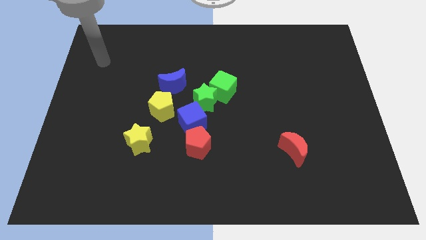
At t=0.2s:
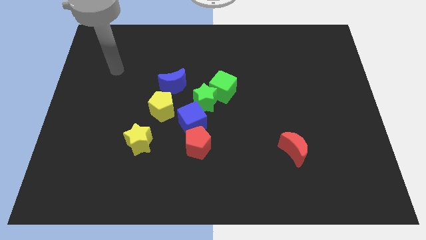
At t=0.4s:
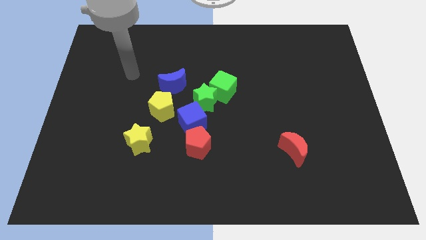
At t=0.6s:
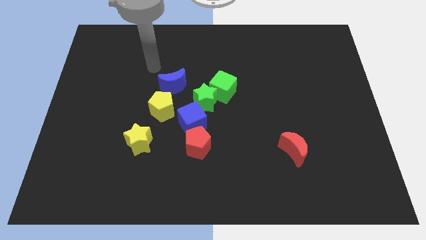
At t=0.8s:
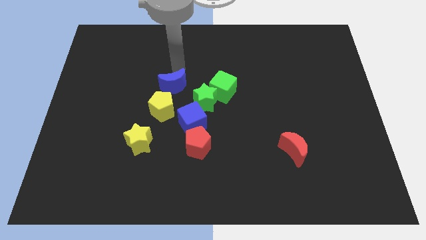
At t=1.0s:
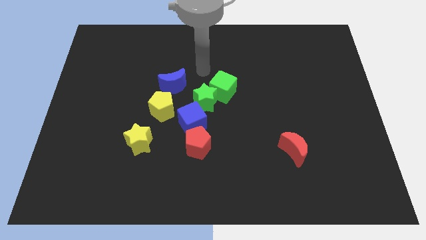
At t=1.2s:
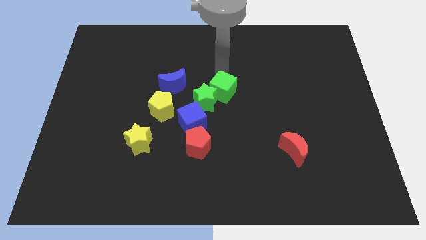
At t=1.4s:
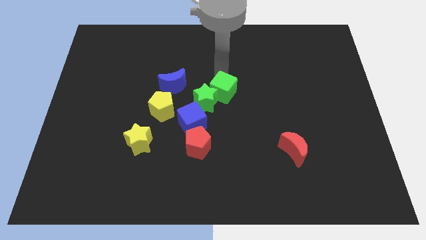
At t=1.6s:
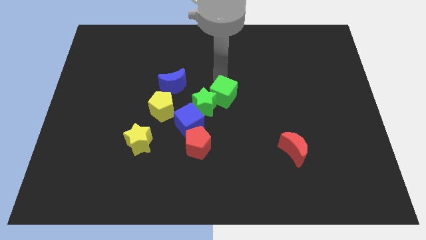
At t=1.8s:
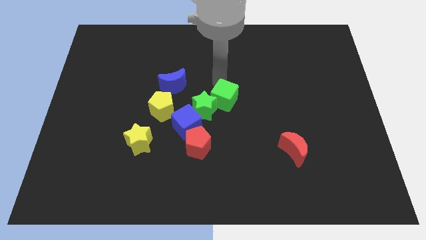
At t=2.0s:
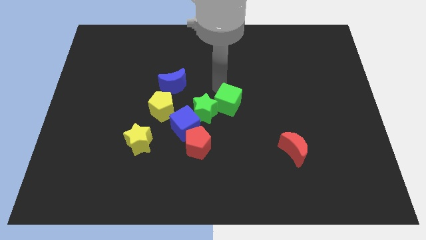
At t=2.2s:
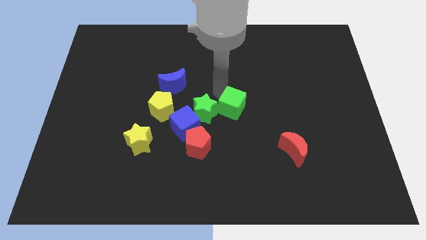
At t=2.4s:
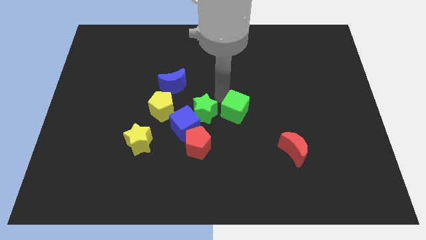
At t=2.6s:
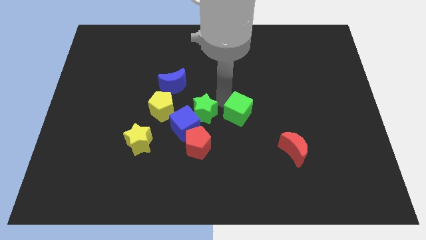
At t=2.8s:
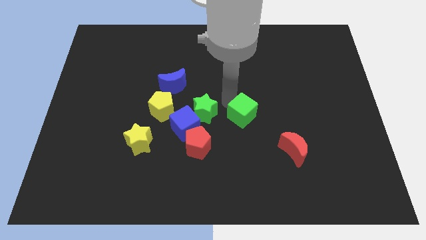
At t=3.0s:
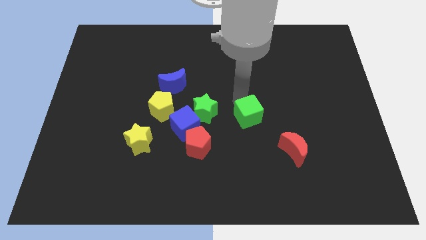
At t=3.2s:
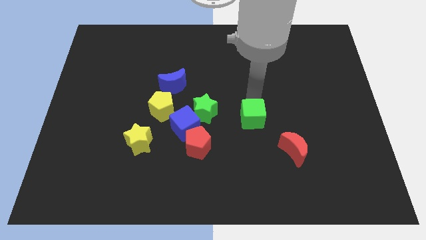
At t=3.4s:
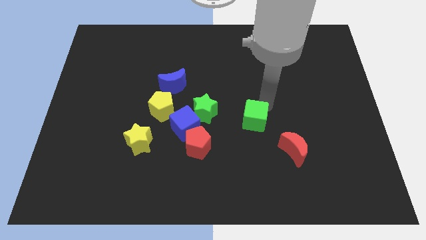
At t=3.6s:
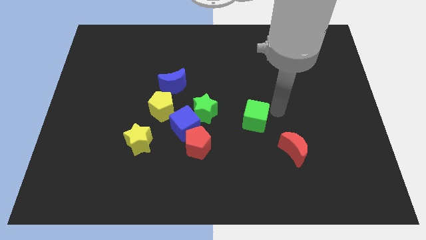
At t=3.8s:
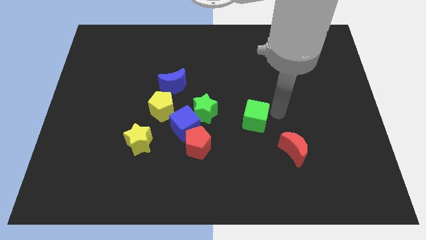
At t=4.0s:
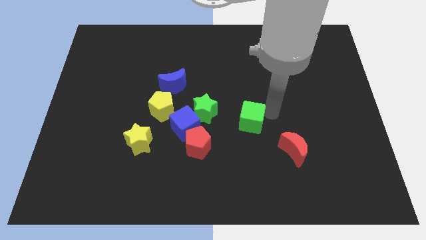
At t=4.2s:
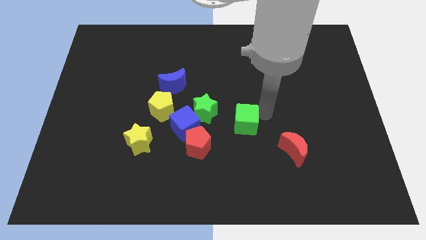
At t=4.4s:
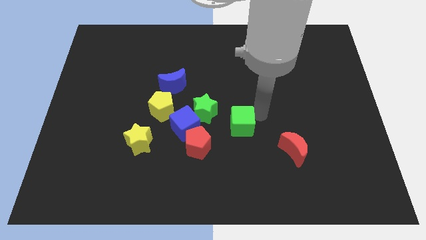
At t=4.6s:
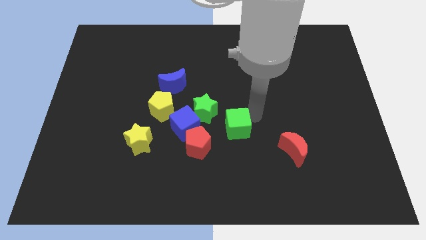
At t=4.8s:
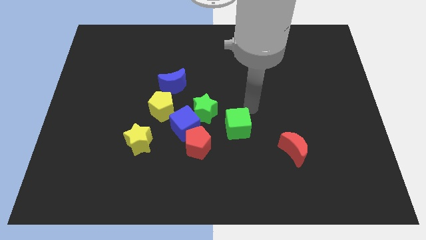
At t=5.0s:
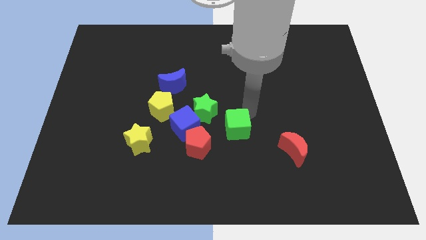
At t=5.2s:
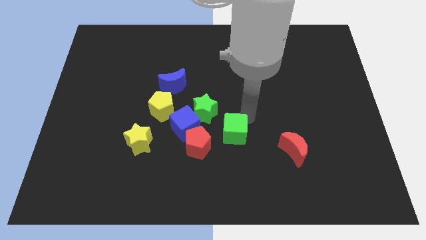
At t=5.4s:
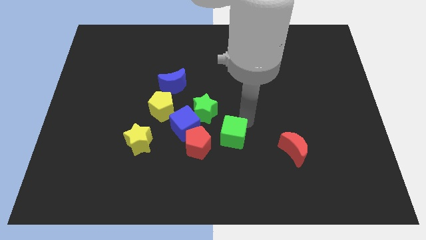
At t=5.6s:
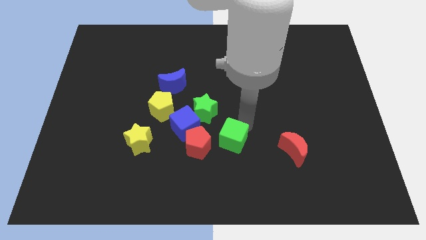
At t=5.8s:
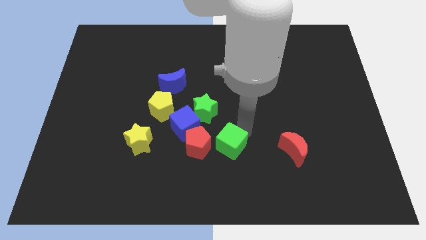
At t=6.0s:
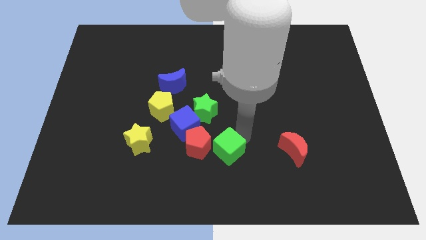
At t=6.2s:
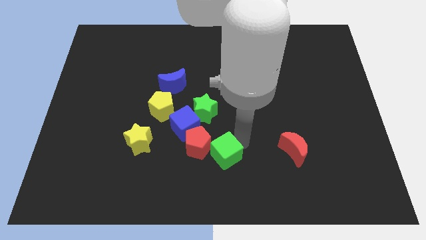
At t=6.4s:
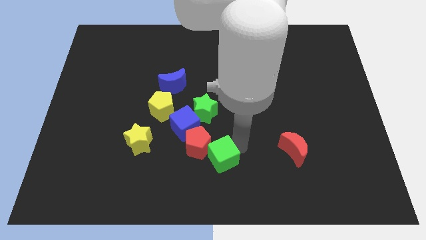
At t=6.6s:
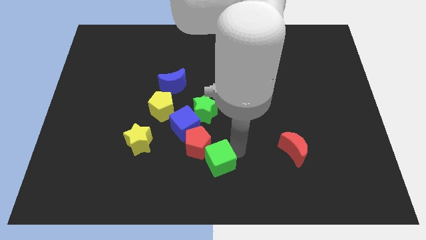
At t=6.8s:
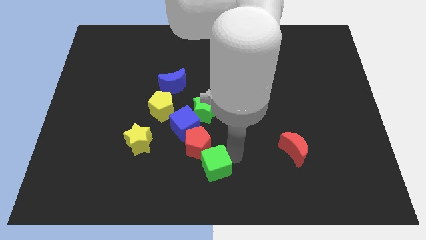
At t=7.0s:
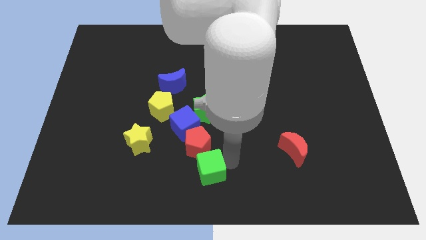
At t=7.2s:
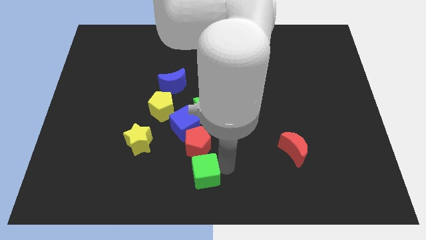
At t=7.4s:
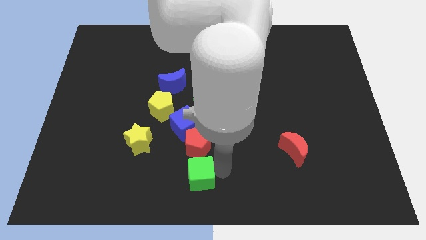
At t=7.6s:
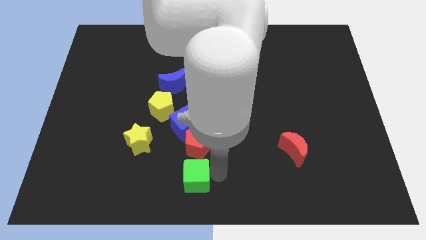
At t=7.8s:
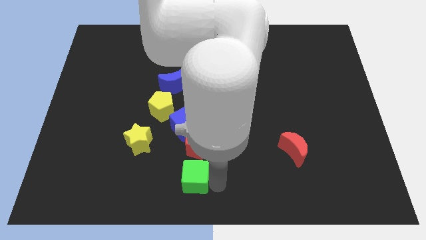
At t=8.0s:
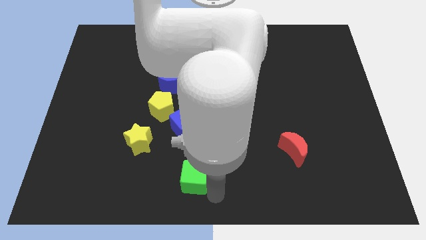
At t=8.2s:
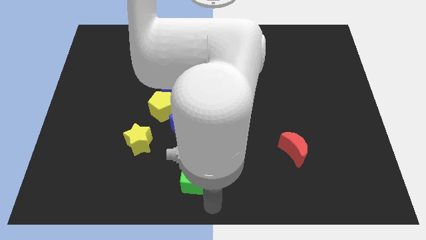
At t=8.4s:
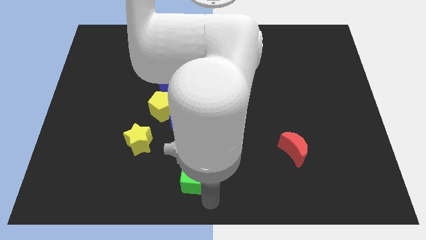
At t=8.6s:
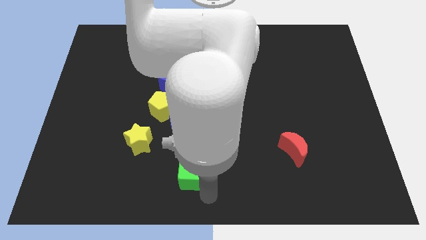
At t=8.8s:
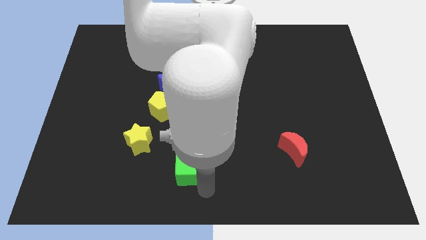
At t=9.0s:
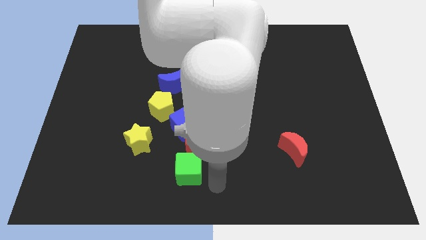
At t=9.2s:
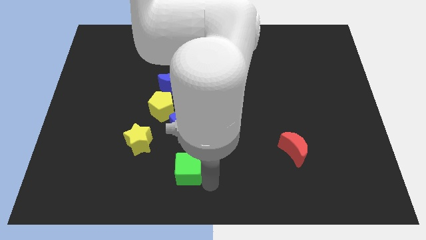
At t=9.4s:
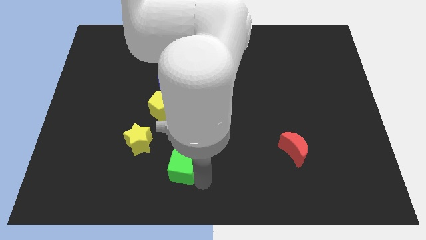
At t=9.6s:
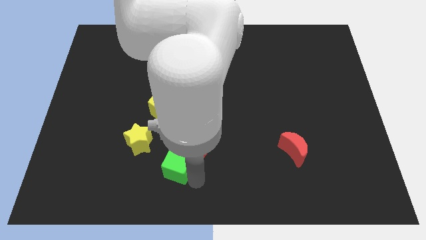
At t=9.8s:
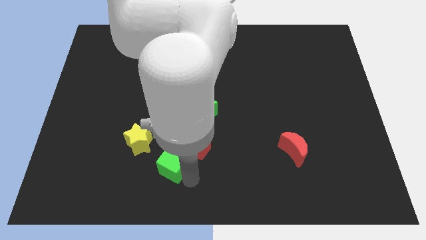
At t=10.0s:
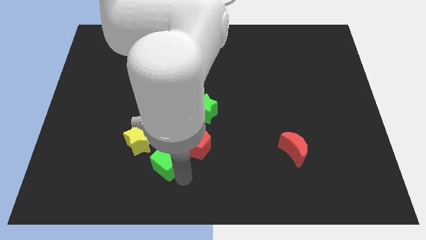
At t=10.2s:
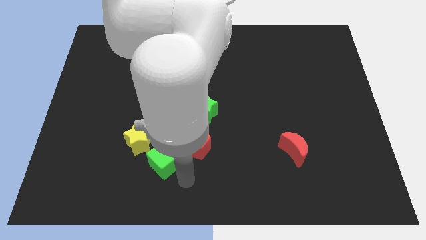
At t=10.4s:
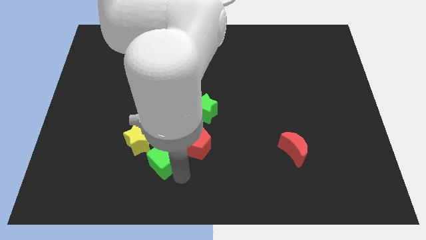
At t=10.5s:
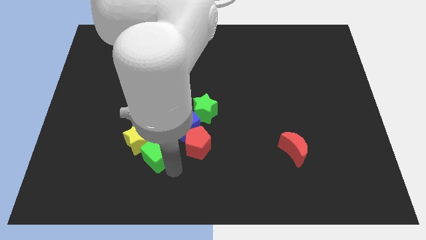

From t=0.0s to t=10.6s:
slide the green cube close to the yellow star

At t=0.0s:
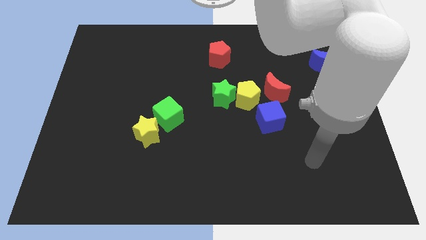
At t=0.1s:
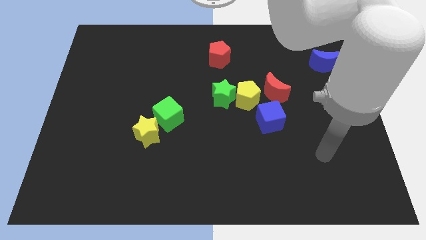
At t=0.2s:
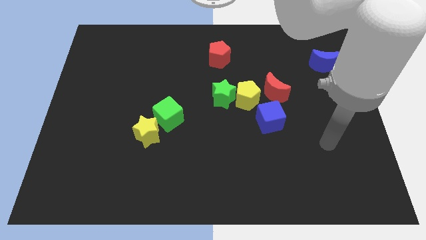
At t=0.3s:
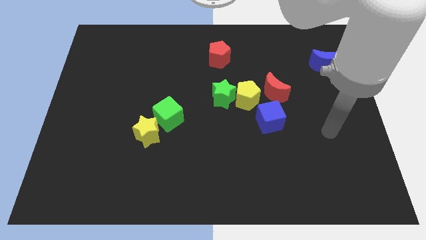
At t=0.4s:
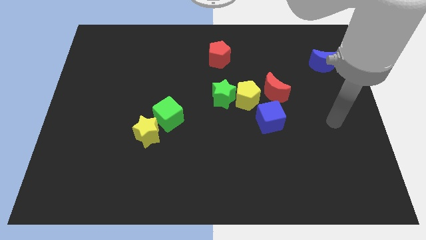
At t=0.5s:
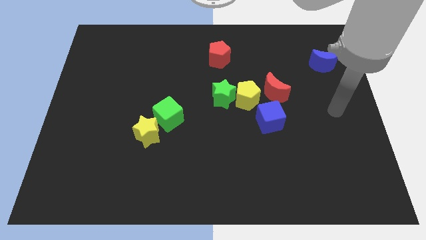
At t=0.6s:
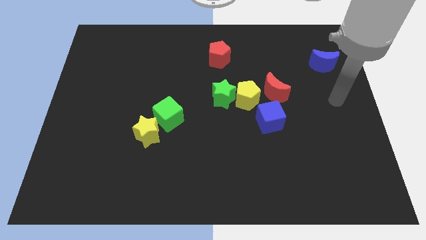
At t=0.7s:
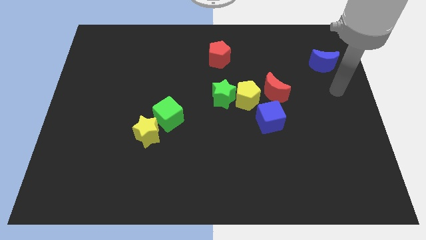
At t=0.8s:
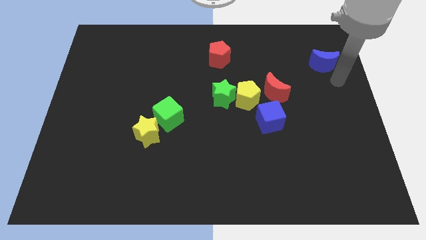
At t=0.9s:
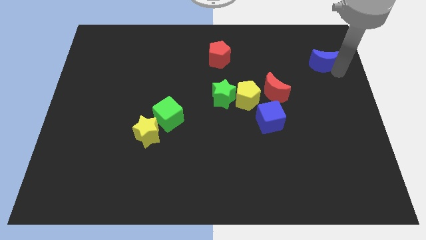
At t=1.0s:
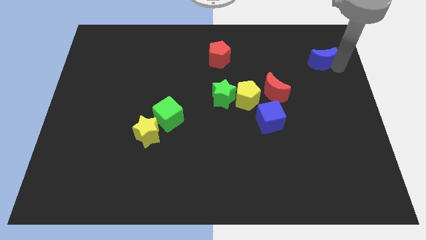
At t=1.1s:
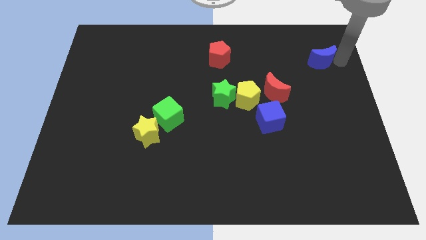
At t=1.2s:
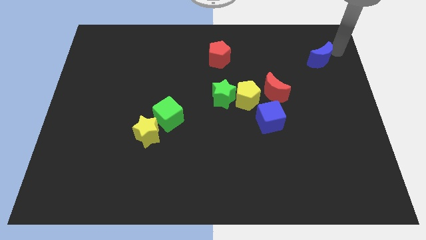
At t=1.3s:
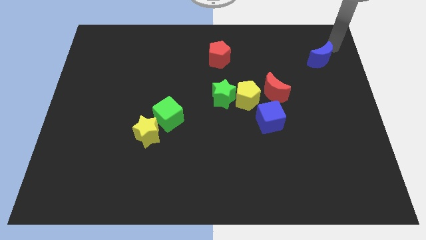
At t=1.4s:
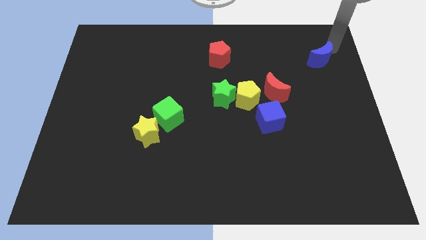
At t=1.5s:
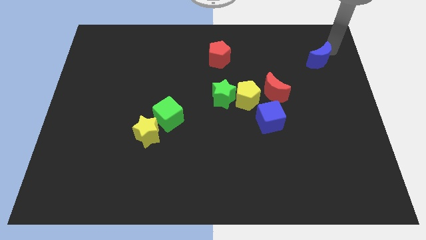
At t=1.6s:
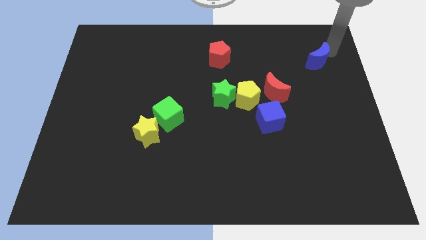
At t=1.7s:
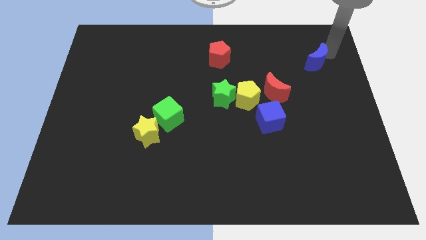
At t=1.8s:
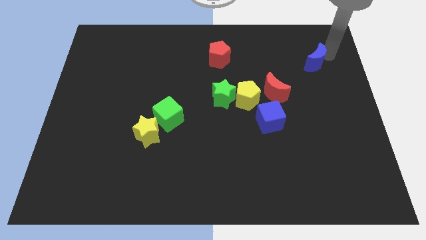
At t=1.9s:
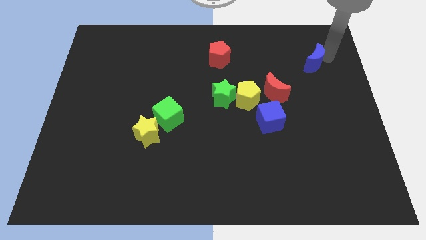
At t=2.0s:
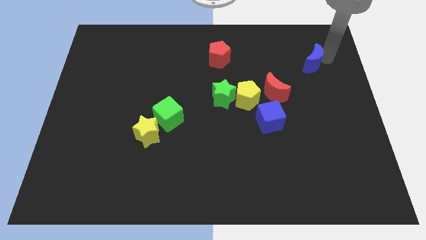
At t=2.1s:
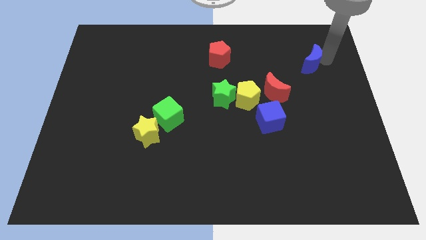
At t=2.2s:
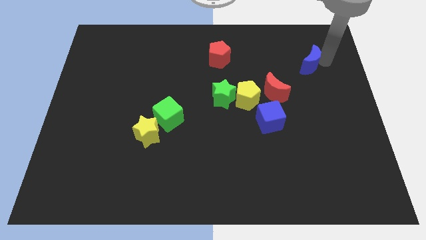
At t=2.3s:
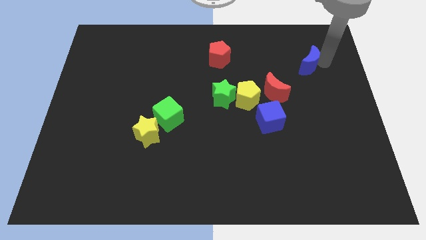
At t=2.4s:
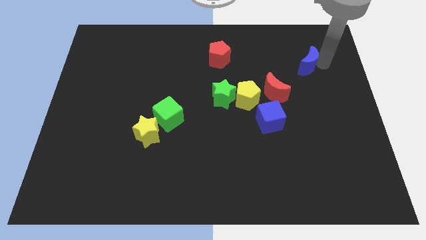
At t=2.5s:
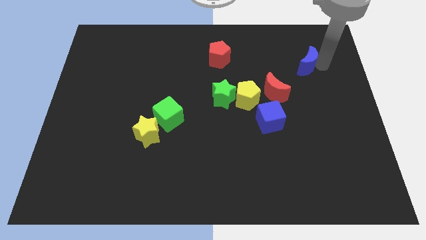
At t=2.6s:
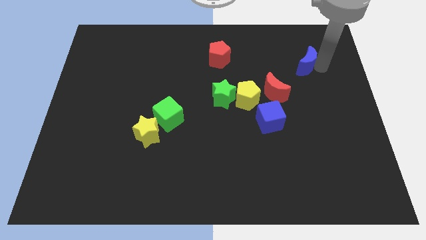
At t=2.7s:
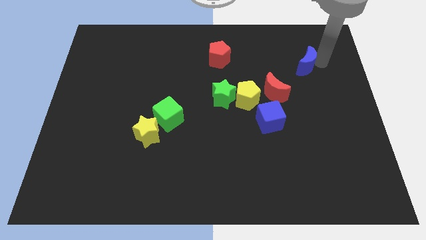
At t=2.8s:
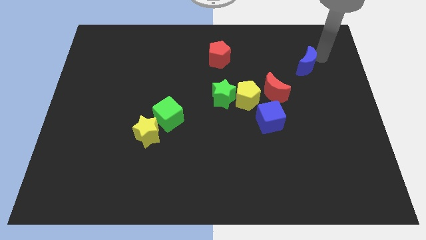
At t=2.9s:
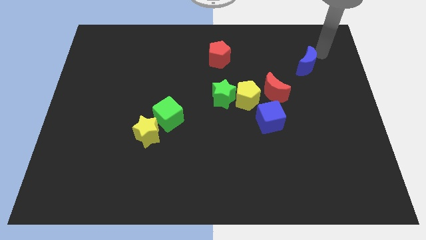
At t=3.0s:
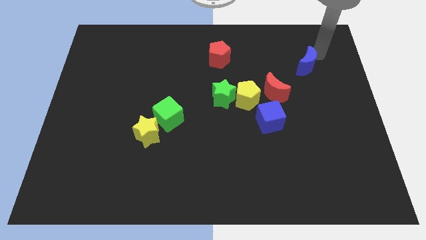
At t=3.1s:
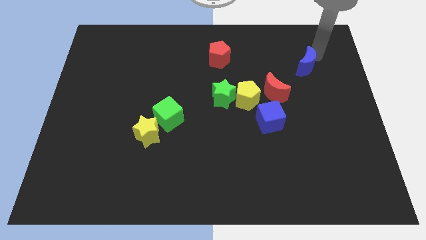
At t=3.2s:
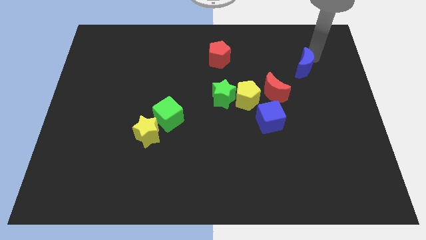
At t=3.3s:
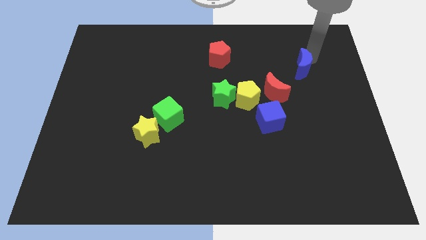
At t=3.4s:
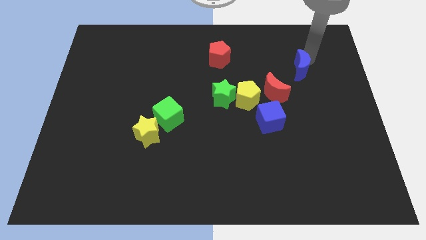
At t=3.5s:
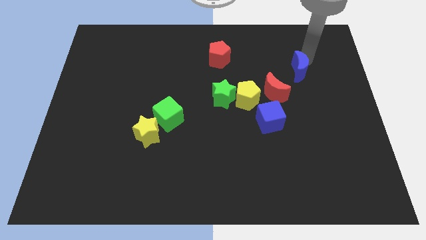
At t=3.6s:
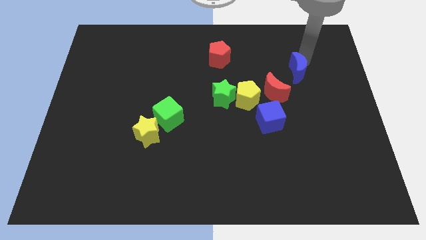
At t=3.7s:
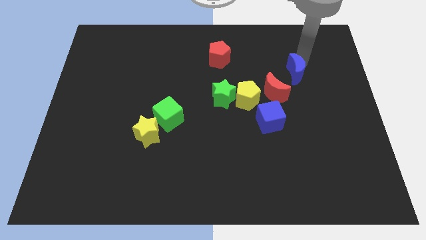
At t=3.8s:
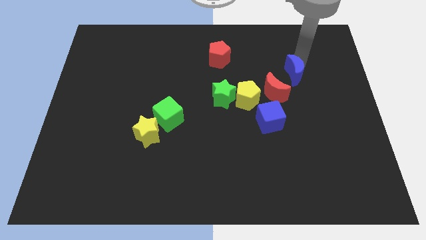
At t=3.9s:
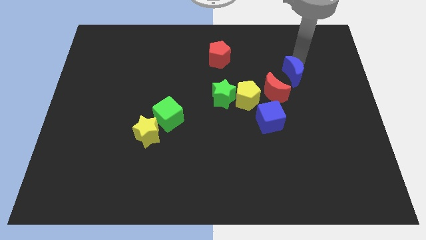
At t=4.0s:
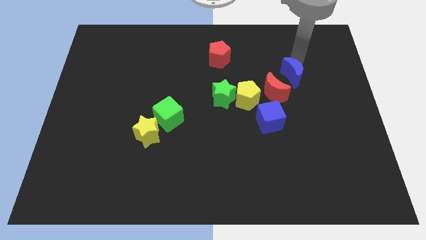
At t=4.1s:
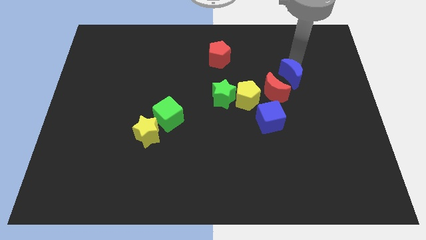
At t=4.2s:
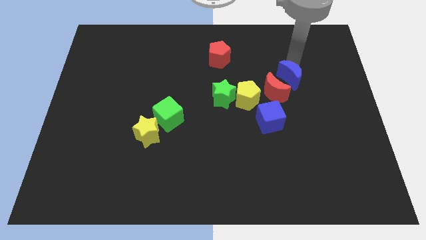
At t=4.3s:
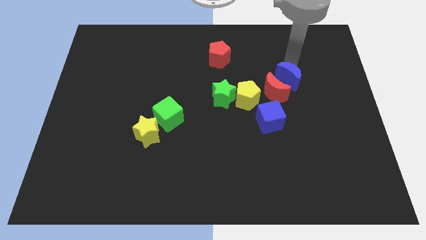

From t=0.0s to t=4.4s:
push the blue moon next to the red moon
